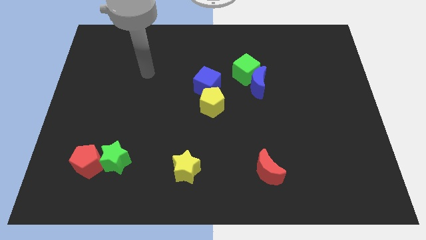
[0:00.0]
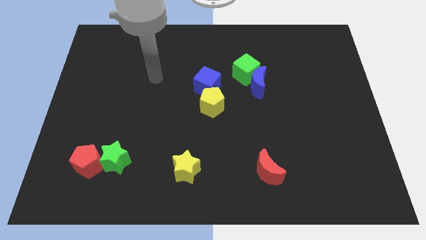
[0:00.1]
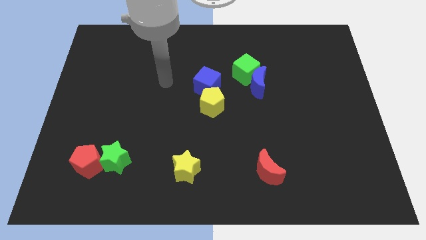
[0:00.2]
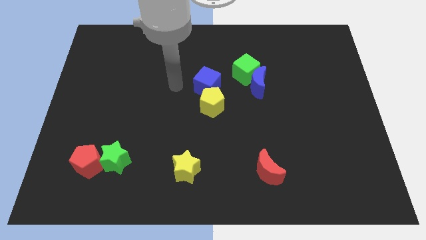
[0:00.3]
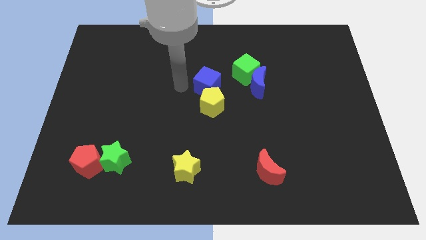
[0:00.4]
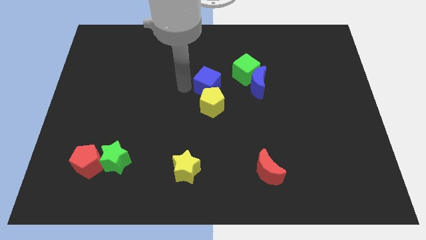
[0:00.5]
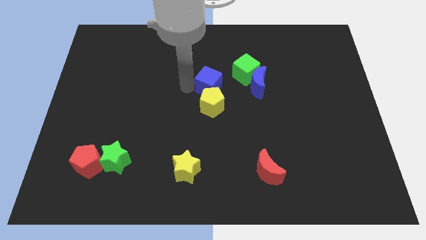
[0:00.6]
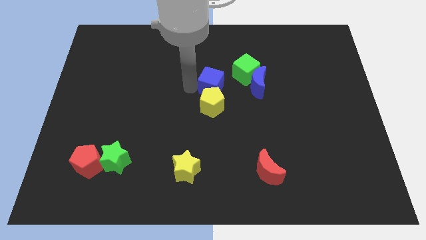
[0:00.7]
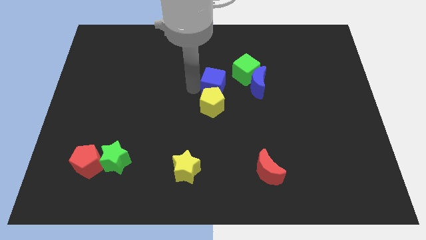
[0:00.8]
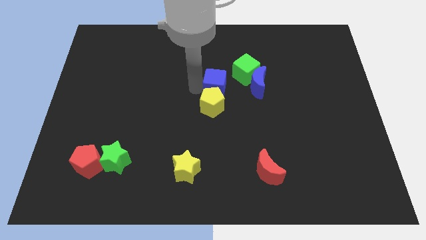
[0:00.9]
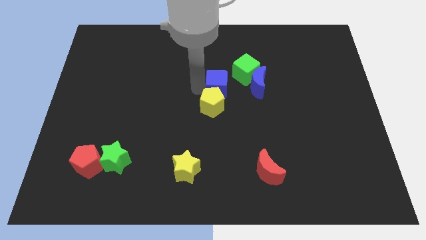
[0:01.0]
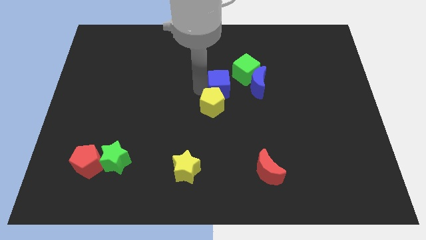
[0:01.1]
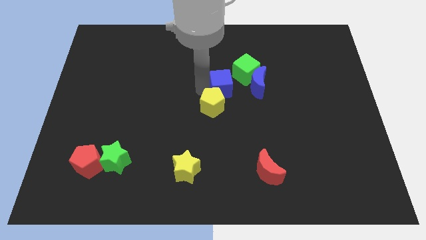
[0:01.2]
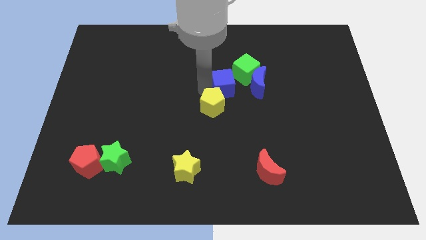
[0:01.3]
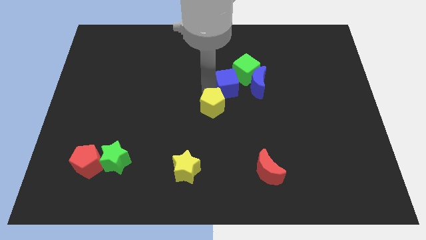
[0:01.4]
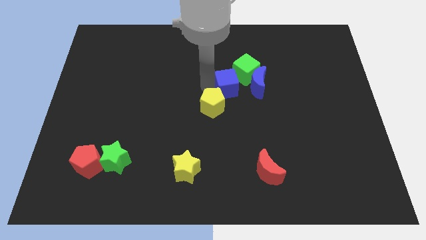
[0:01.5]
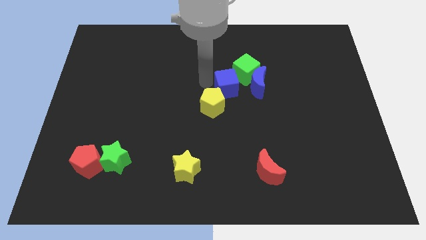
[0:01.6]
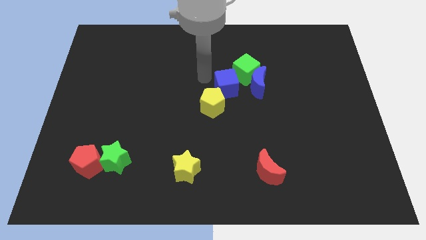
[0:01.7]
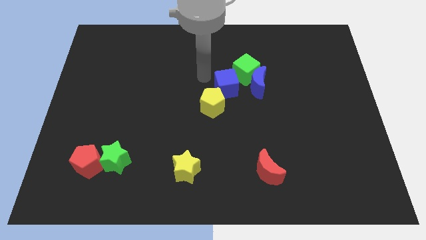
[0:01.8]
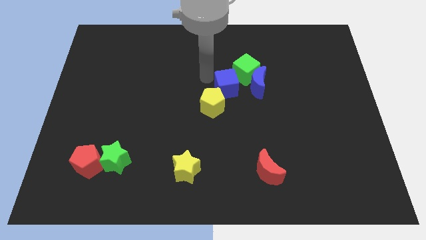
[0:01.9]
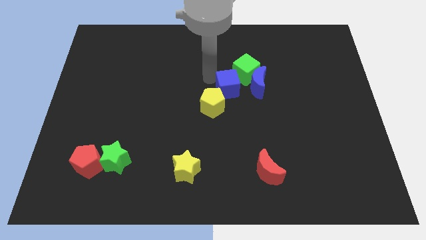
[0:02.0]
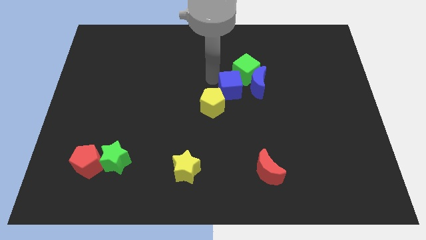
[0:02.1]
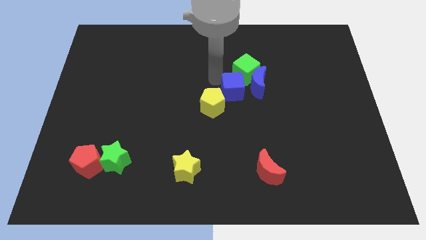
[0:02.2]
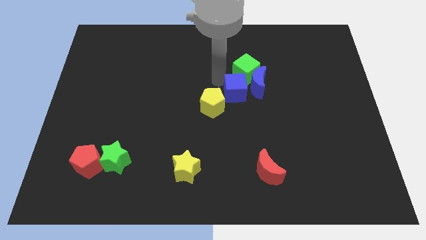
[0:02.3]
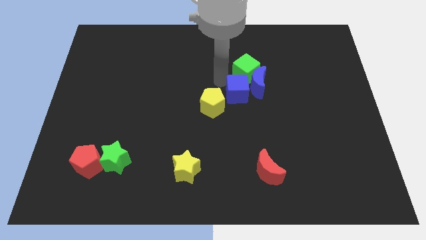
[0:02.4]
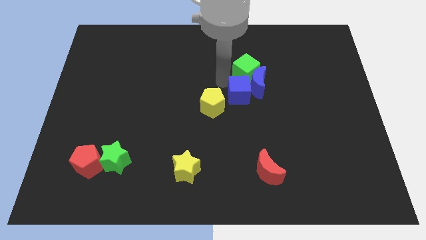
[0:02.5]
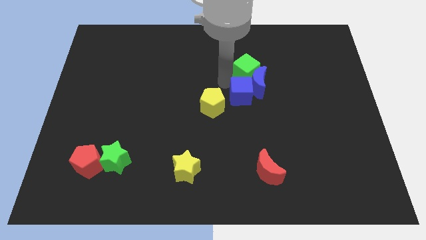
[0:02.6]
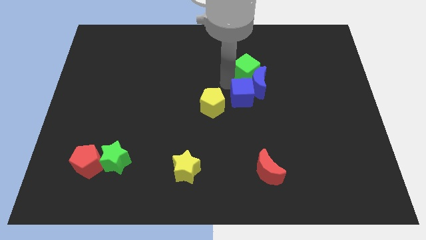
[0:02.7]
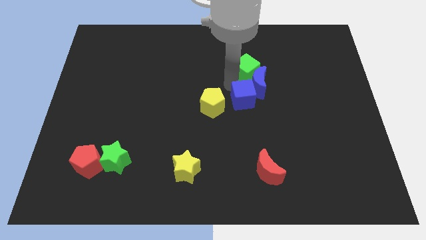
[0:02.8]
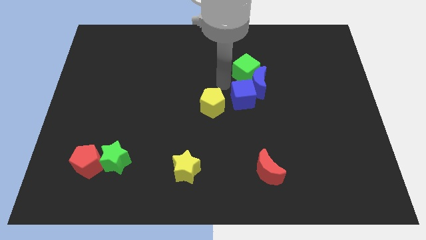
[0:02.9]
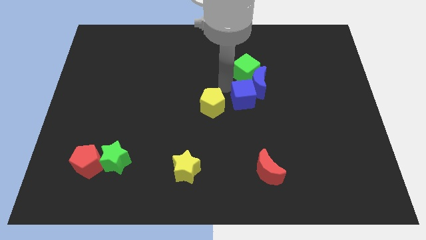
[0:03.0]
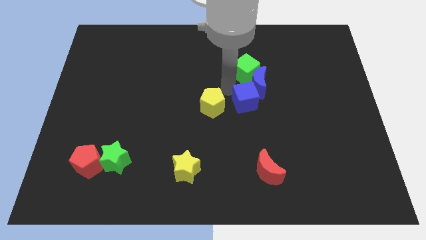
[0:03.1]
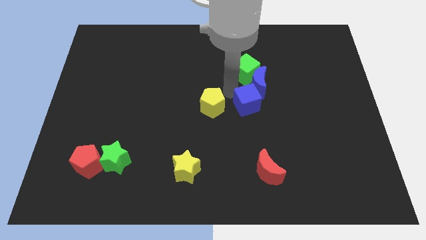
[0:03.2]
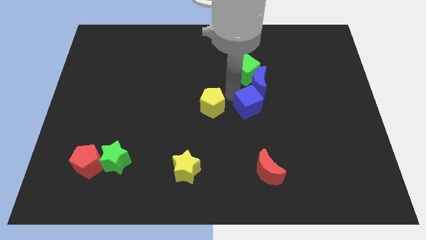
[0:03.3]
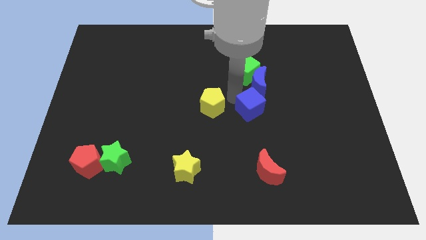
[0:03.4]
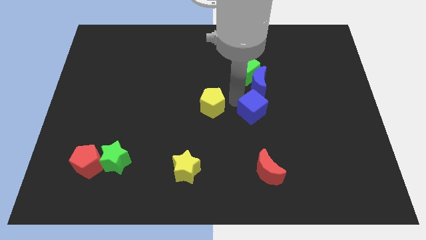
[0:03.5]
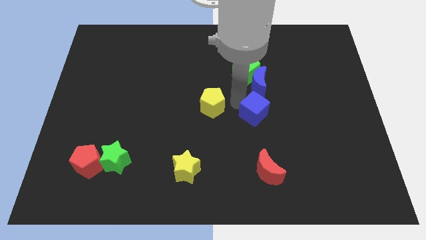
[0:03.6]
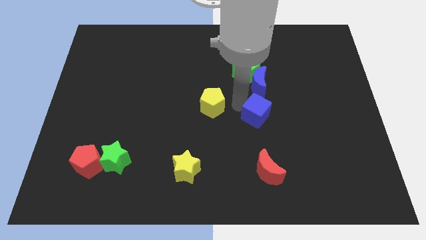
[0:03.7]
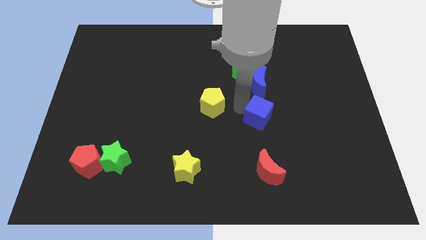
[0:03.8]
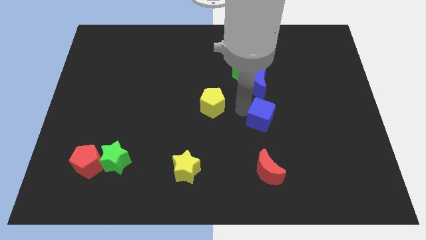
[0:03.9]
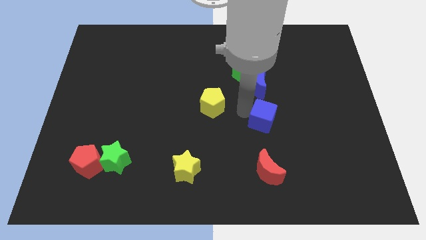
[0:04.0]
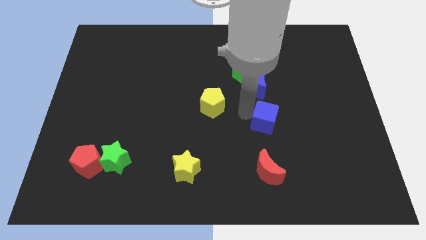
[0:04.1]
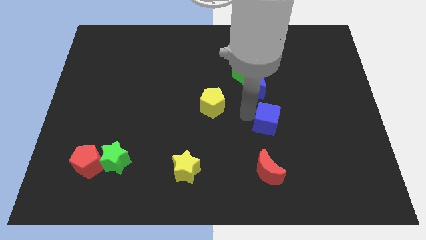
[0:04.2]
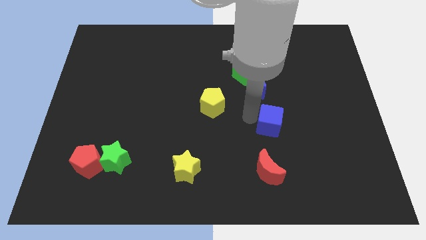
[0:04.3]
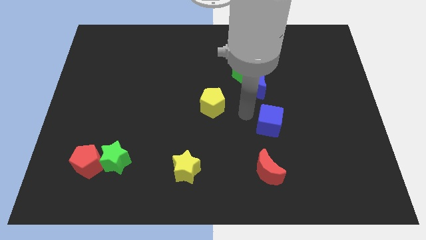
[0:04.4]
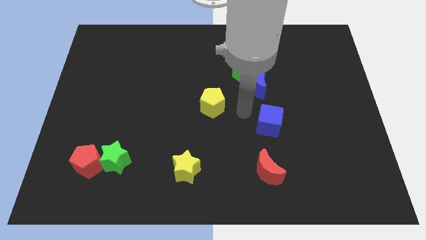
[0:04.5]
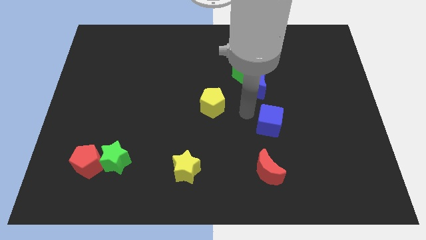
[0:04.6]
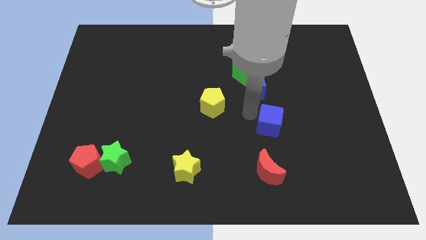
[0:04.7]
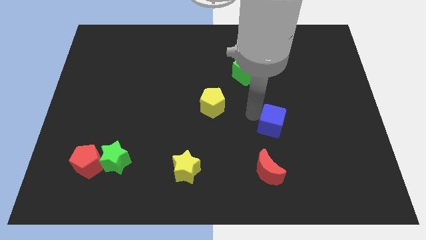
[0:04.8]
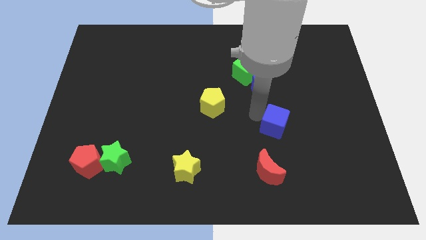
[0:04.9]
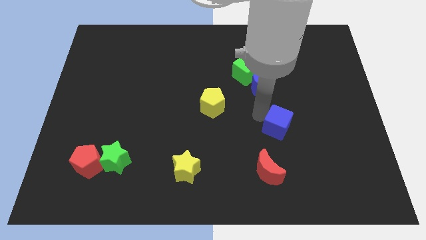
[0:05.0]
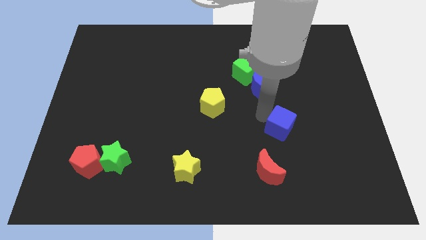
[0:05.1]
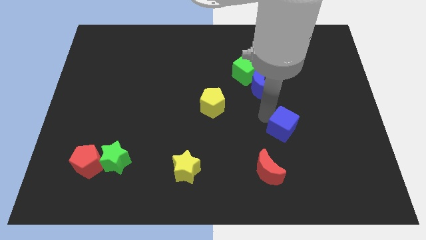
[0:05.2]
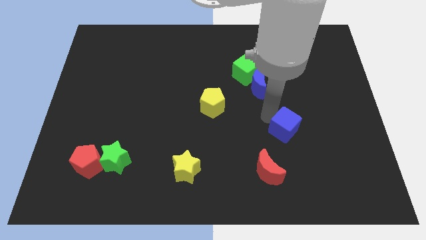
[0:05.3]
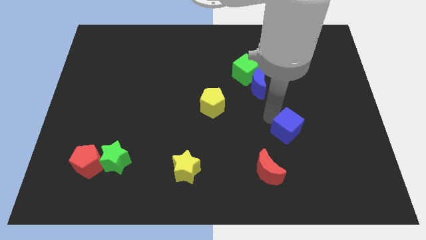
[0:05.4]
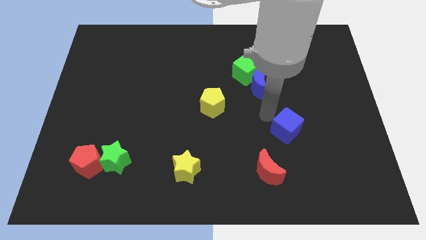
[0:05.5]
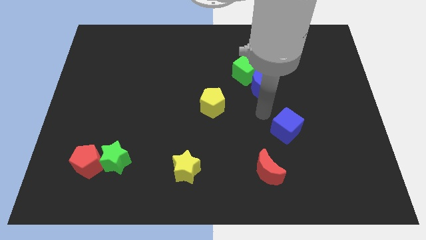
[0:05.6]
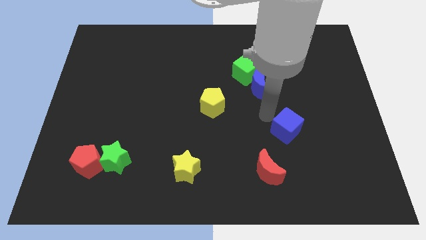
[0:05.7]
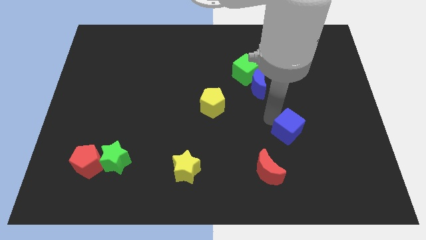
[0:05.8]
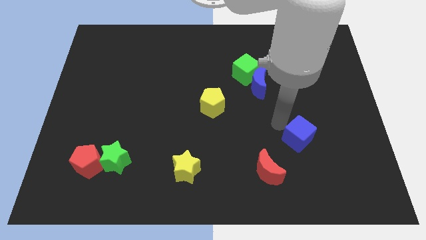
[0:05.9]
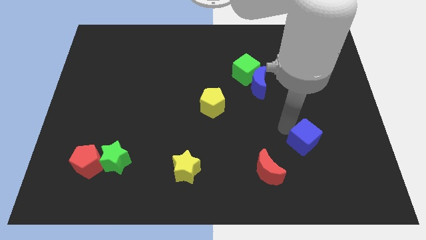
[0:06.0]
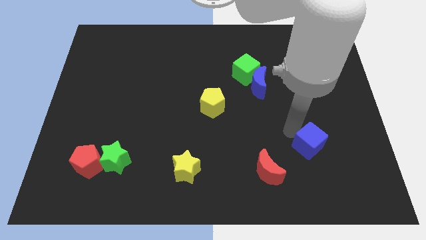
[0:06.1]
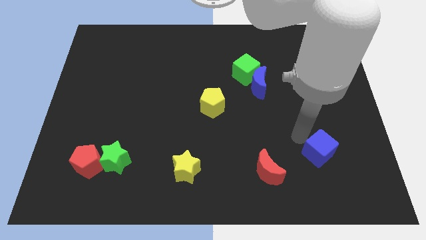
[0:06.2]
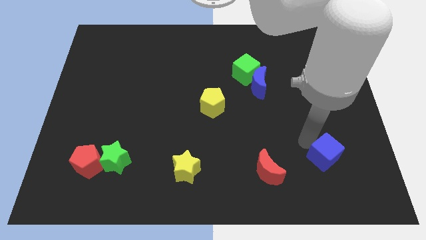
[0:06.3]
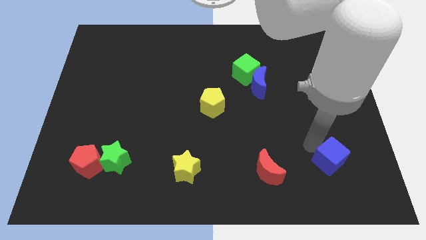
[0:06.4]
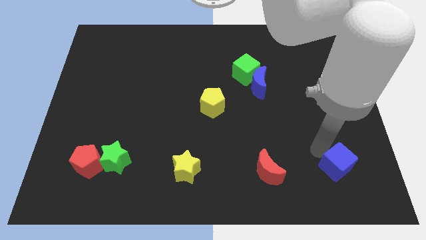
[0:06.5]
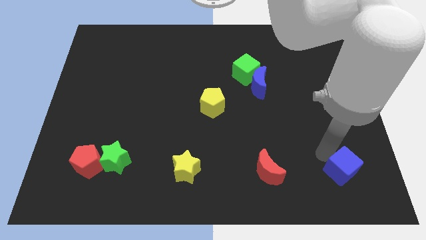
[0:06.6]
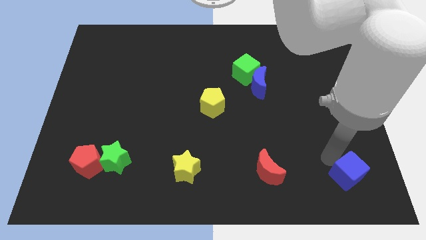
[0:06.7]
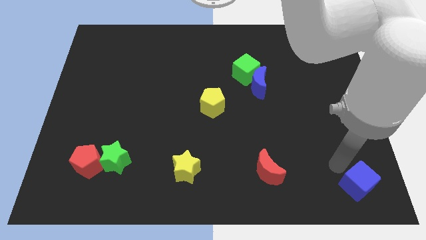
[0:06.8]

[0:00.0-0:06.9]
move the blue cube to the bottom right corner
